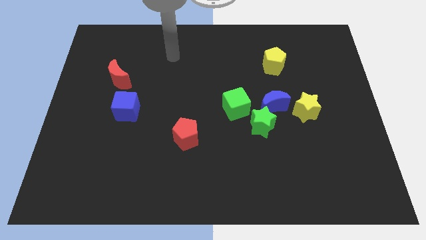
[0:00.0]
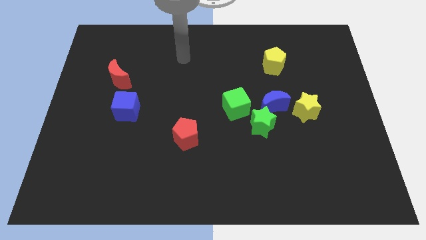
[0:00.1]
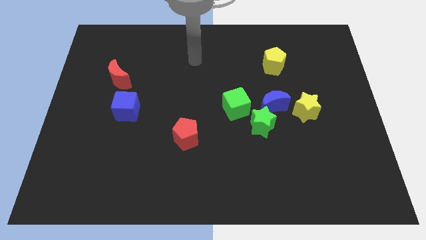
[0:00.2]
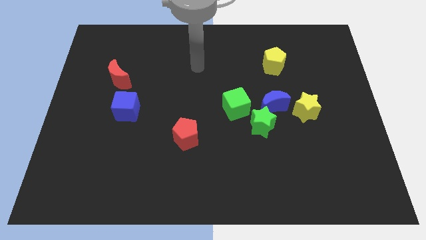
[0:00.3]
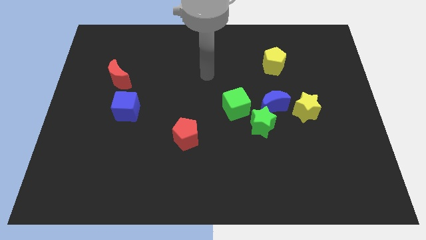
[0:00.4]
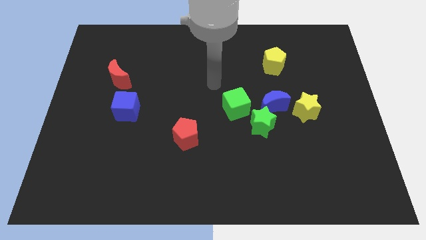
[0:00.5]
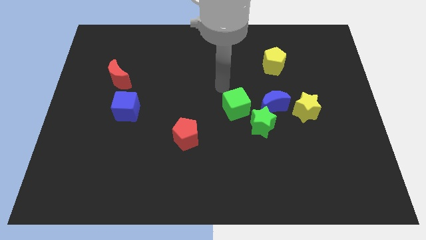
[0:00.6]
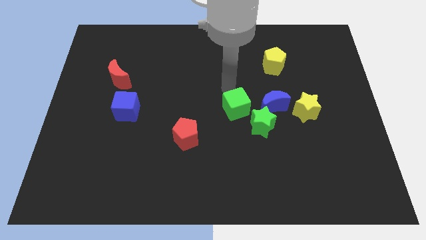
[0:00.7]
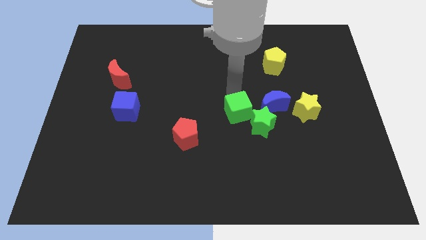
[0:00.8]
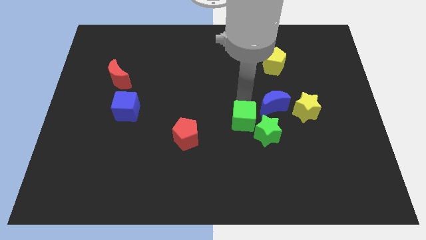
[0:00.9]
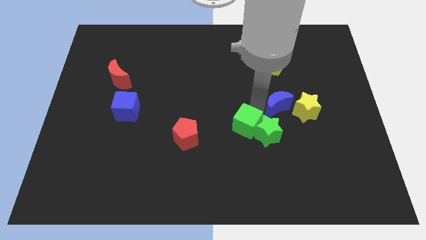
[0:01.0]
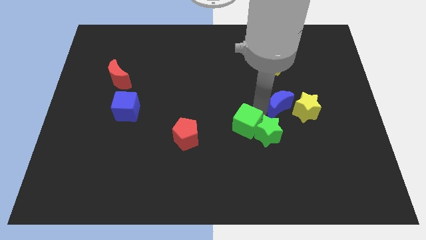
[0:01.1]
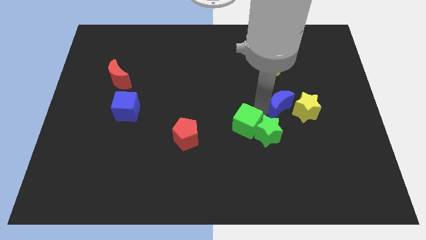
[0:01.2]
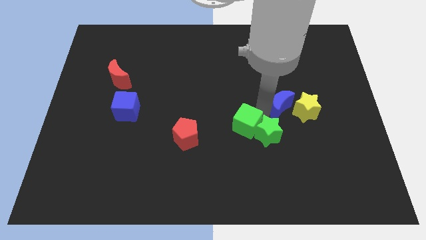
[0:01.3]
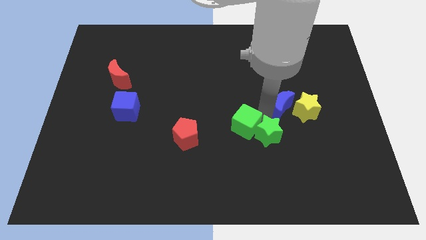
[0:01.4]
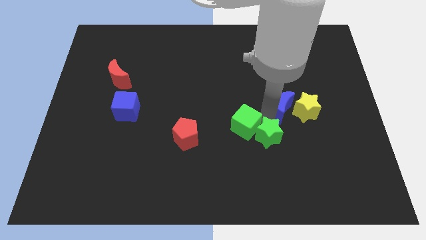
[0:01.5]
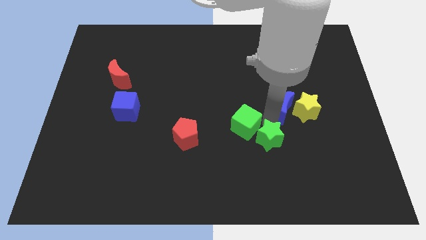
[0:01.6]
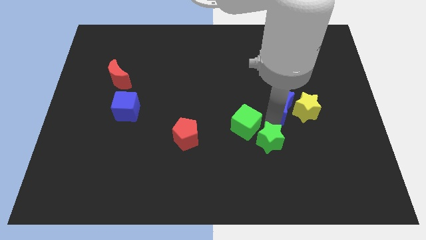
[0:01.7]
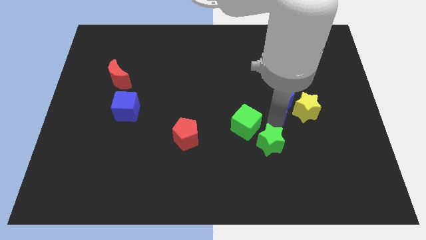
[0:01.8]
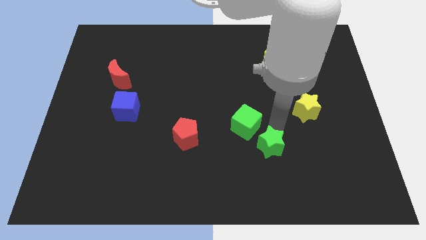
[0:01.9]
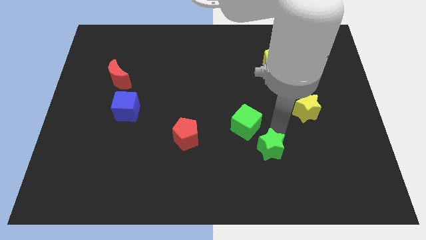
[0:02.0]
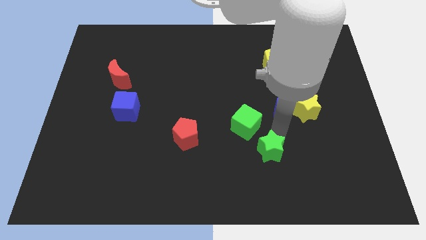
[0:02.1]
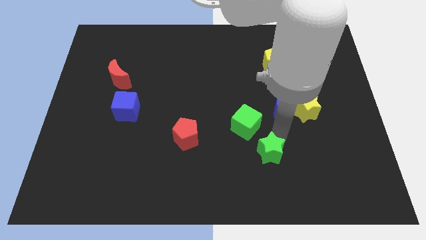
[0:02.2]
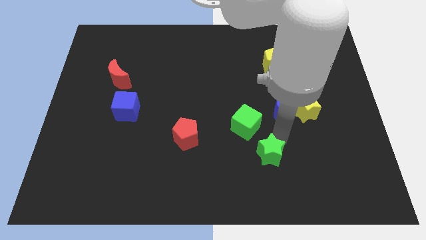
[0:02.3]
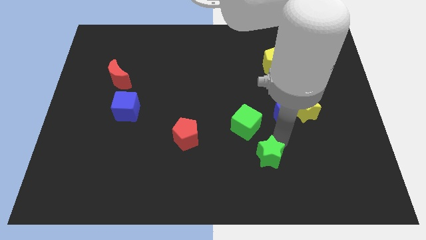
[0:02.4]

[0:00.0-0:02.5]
move the green star away from the blue moon and green cube

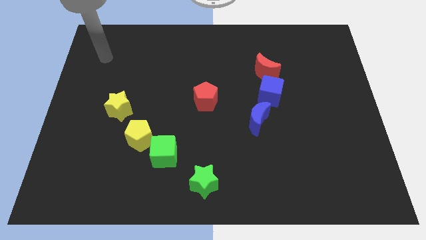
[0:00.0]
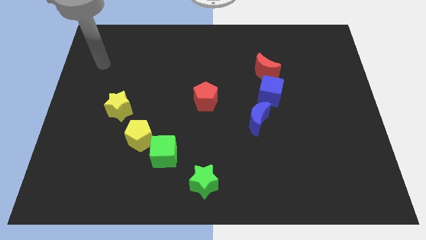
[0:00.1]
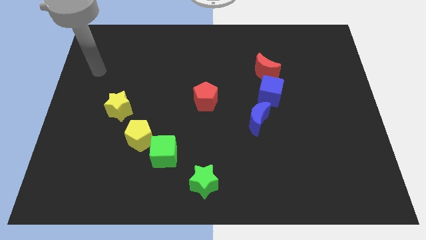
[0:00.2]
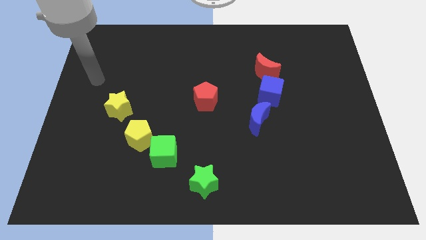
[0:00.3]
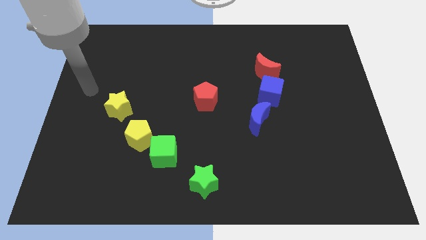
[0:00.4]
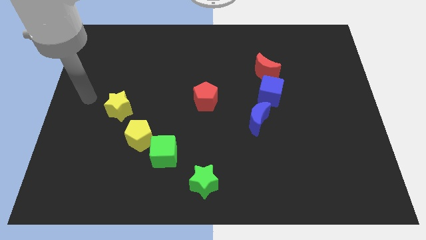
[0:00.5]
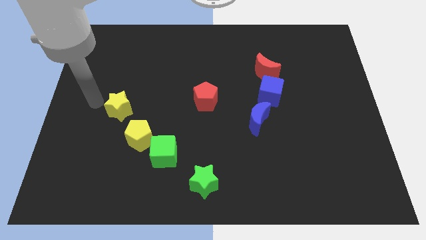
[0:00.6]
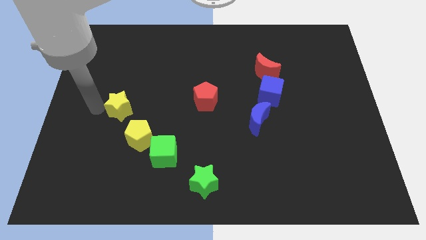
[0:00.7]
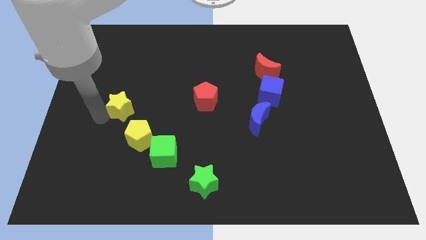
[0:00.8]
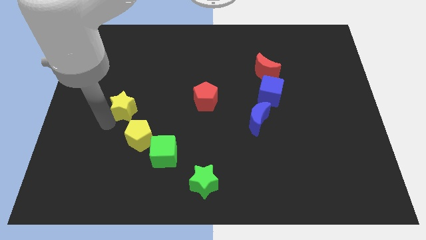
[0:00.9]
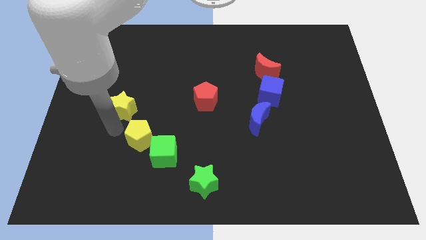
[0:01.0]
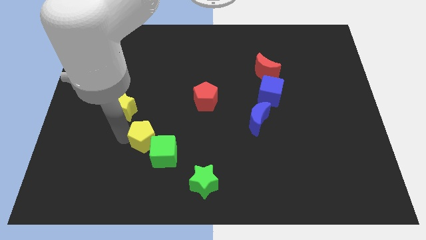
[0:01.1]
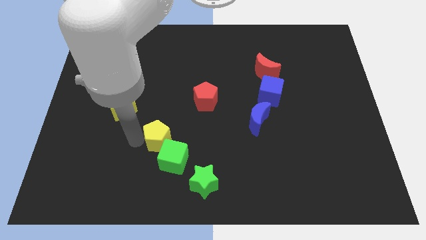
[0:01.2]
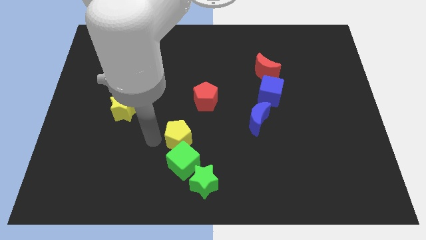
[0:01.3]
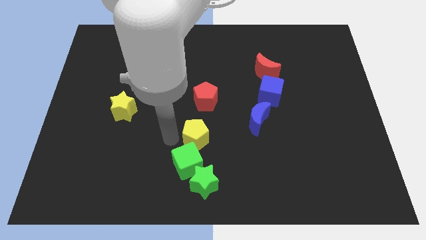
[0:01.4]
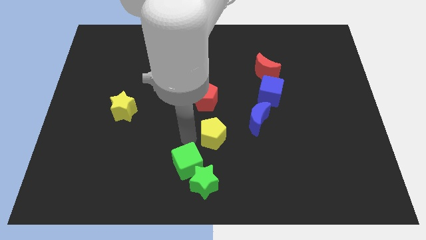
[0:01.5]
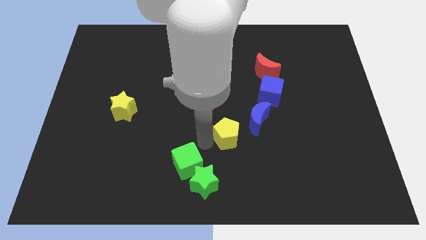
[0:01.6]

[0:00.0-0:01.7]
pull the green cube apart from the yellow pentagon

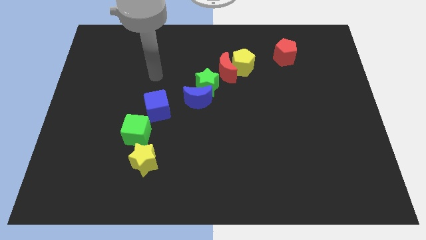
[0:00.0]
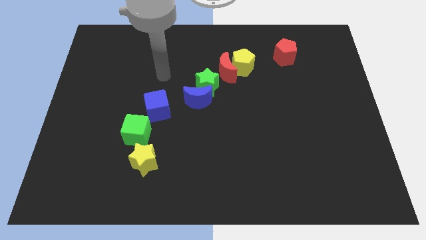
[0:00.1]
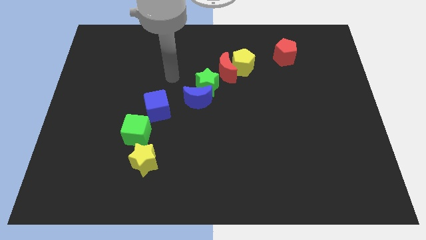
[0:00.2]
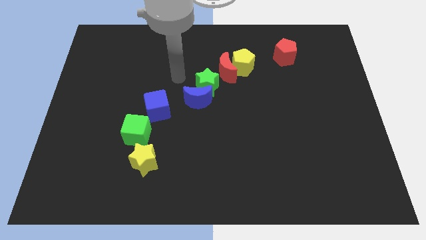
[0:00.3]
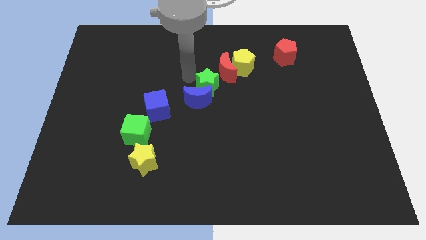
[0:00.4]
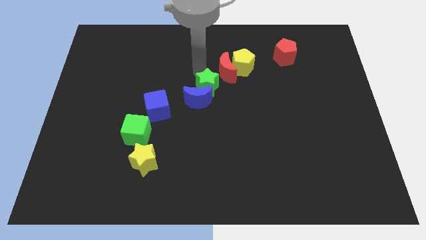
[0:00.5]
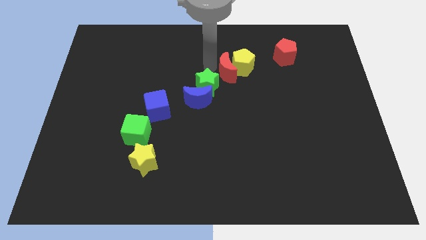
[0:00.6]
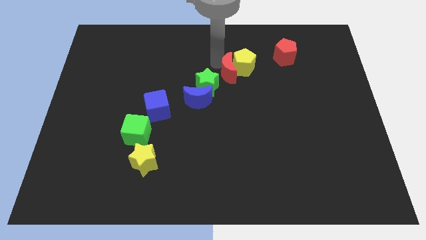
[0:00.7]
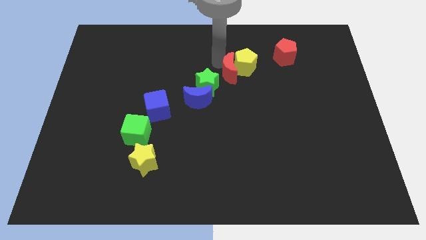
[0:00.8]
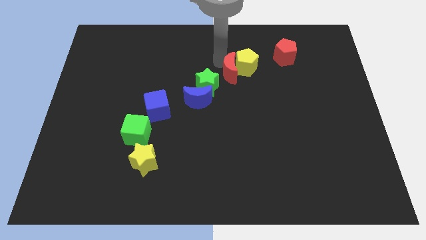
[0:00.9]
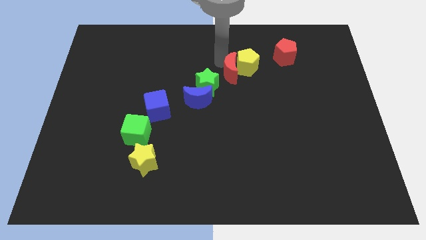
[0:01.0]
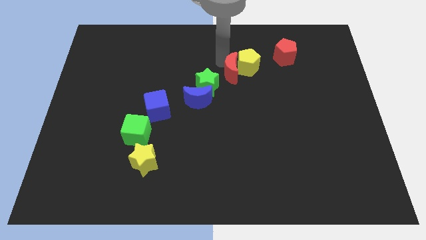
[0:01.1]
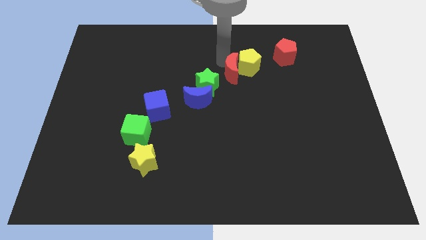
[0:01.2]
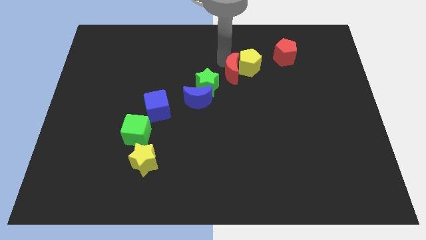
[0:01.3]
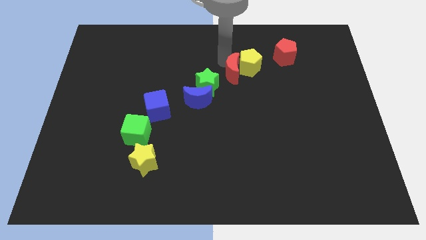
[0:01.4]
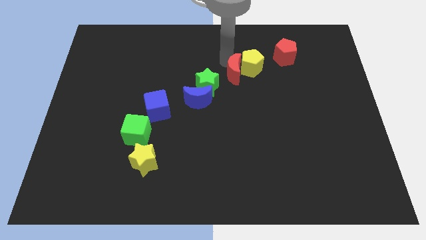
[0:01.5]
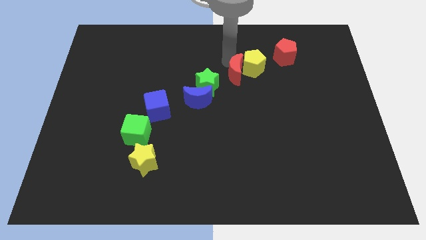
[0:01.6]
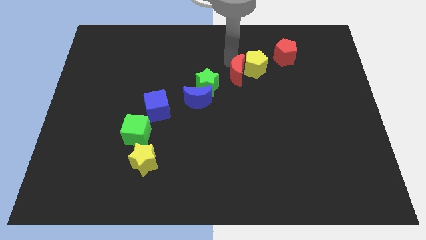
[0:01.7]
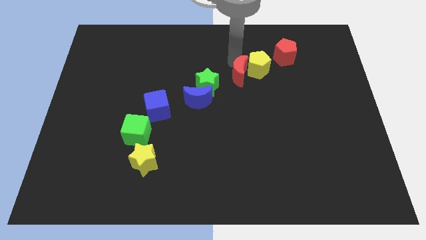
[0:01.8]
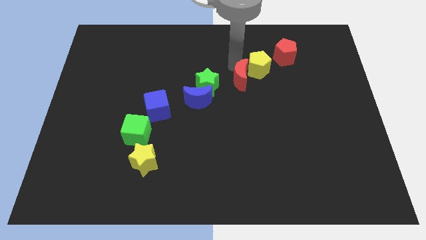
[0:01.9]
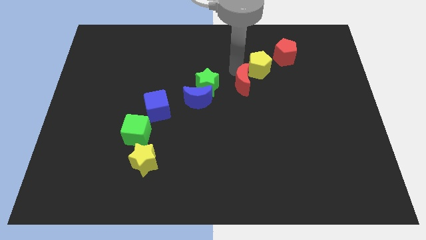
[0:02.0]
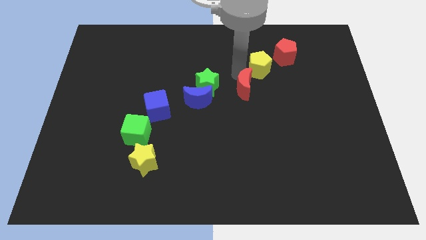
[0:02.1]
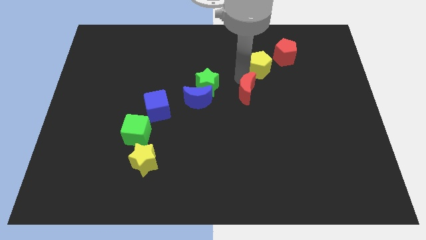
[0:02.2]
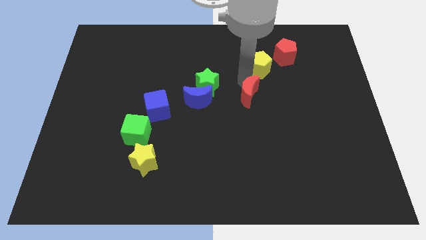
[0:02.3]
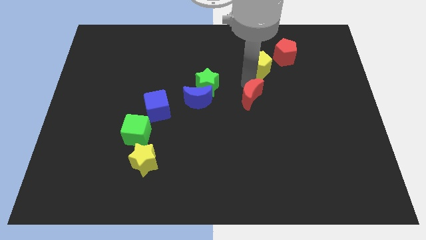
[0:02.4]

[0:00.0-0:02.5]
separate the yellow pentagon from the red moon

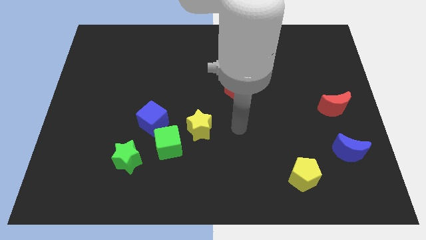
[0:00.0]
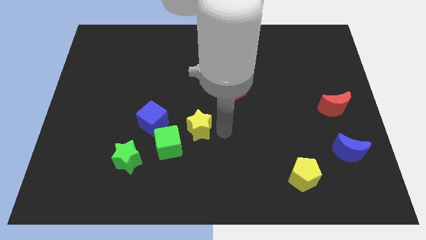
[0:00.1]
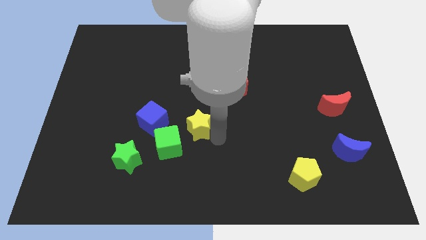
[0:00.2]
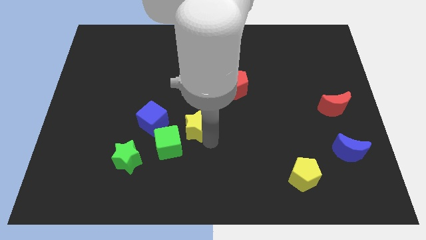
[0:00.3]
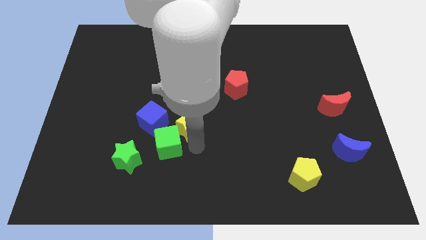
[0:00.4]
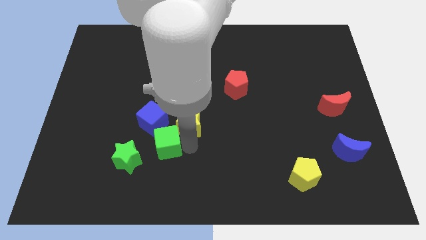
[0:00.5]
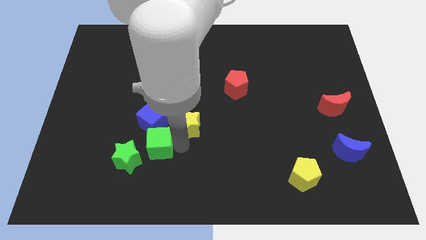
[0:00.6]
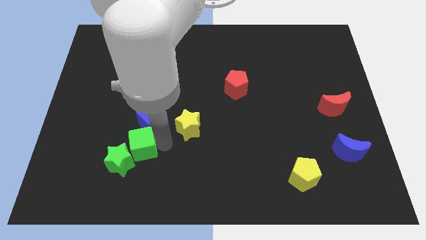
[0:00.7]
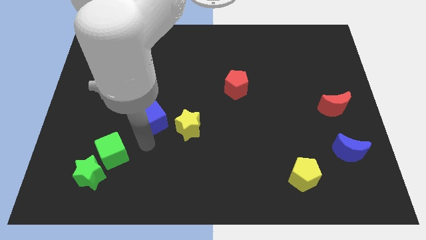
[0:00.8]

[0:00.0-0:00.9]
move the blue cube away from the green cube

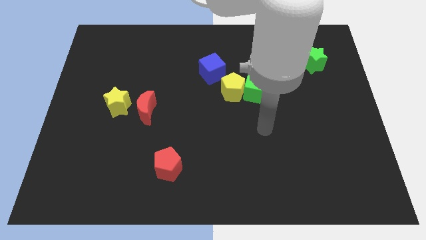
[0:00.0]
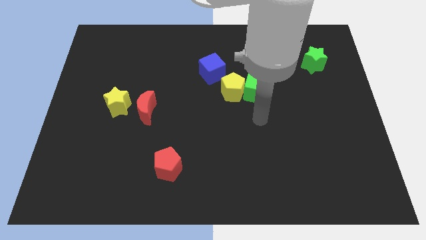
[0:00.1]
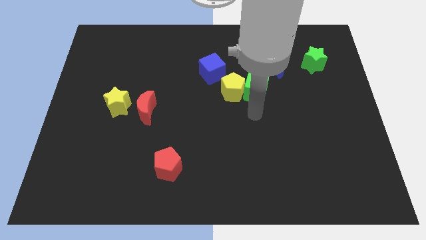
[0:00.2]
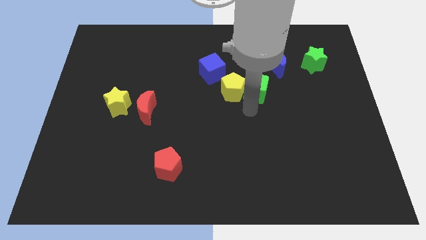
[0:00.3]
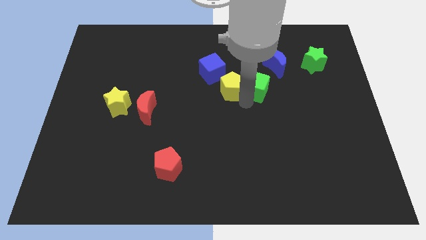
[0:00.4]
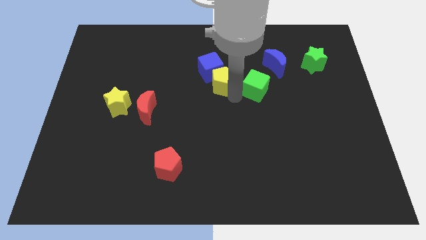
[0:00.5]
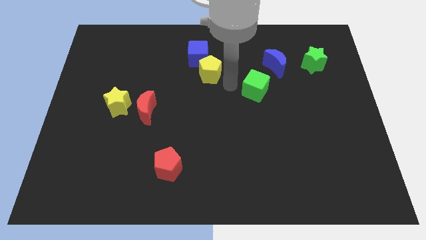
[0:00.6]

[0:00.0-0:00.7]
separate the green cube from the yellow pentagon

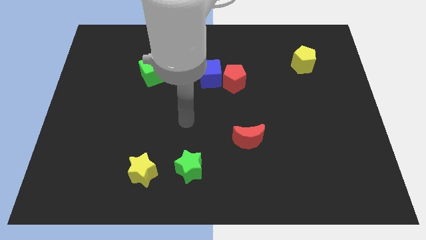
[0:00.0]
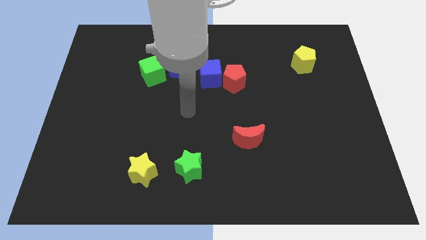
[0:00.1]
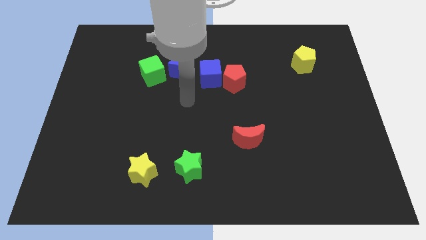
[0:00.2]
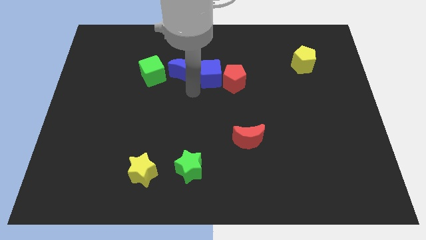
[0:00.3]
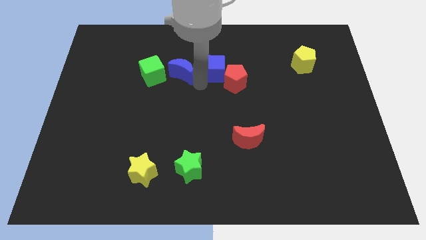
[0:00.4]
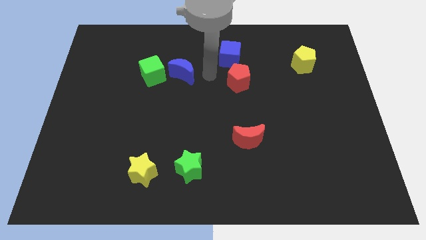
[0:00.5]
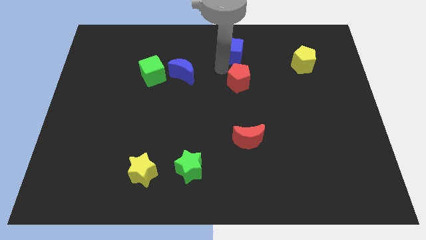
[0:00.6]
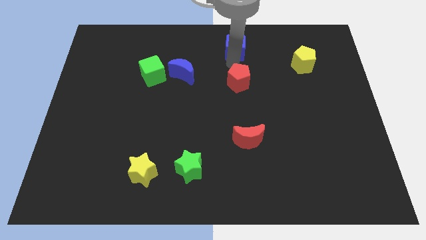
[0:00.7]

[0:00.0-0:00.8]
separate the red pentagon from the blue cube

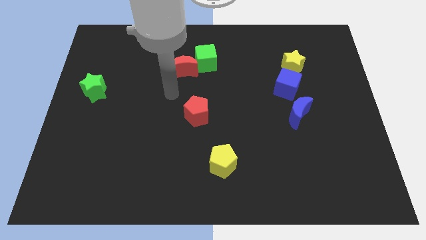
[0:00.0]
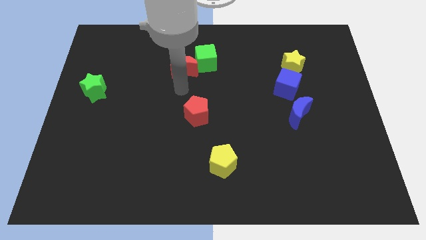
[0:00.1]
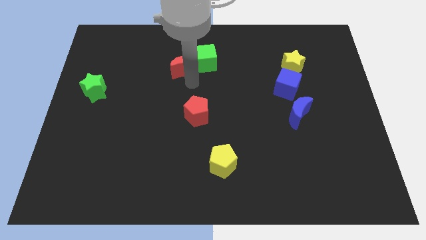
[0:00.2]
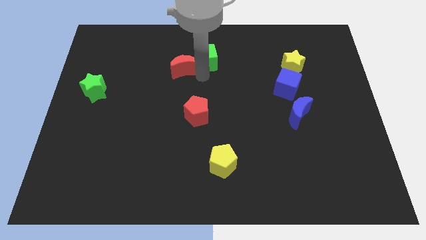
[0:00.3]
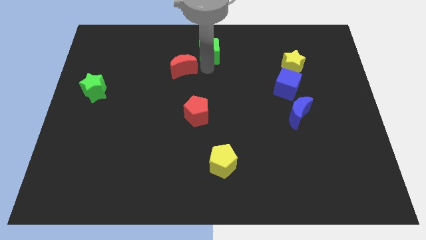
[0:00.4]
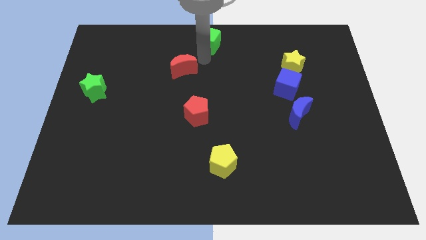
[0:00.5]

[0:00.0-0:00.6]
move the red moon away from the green cube
